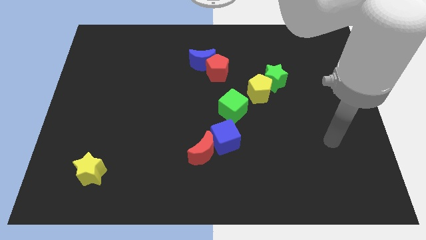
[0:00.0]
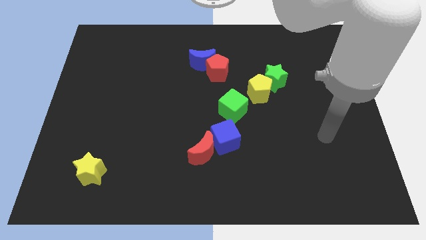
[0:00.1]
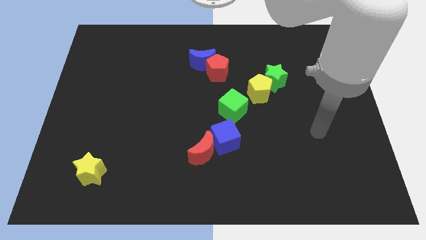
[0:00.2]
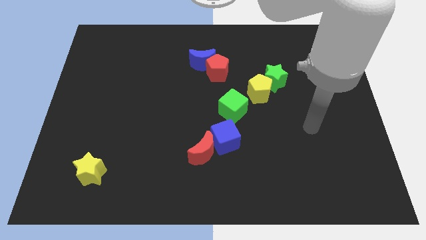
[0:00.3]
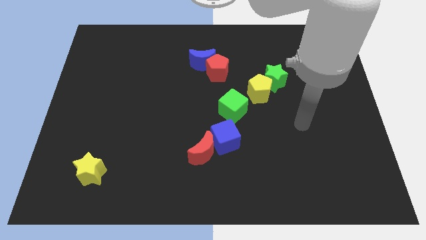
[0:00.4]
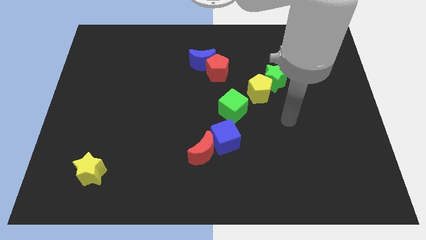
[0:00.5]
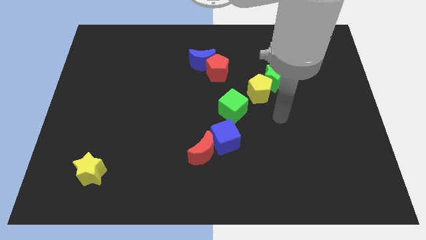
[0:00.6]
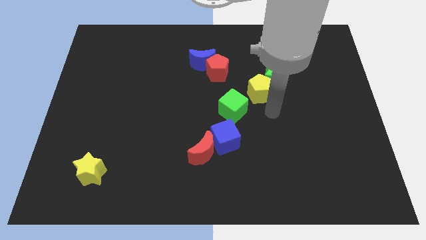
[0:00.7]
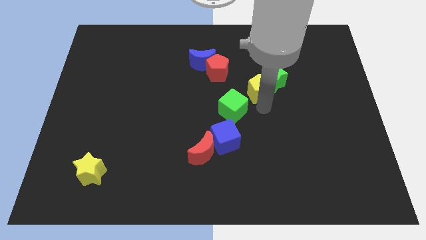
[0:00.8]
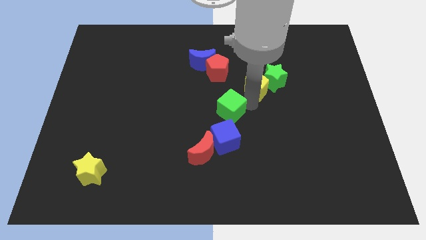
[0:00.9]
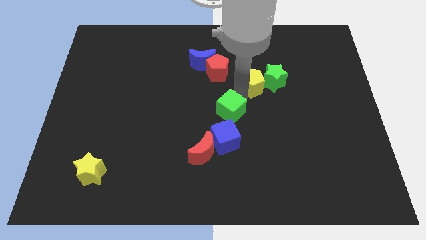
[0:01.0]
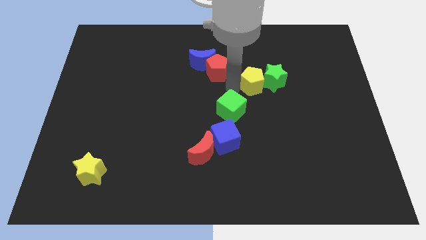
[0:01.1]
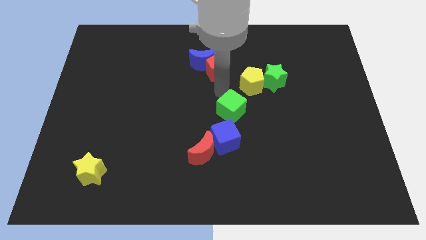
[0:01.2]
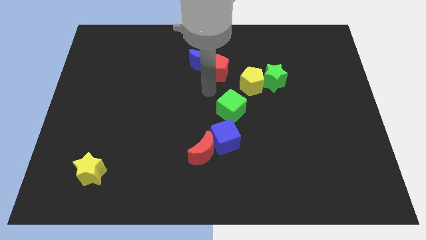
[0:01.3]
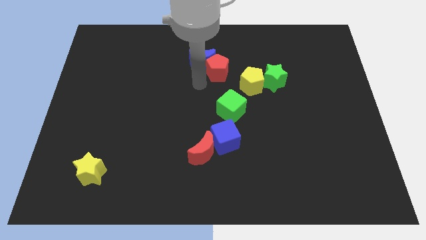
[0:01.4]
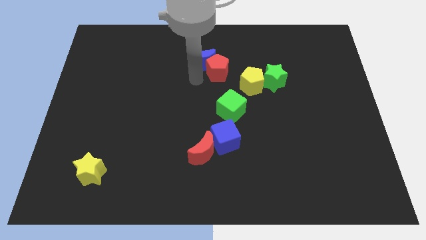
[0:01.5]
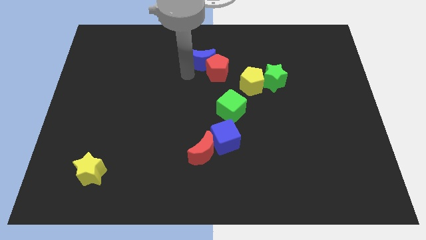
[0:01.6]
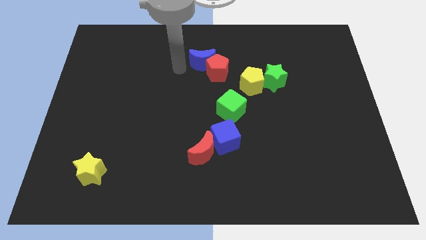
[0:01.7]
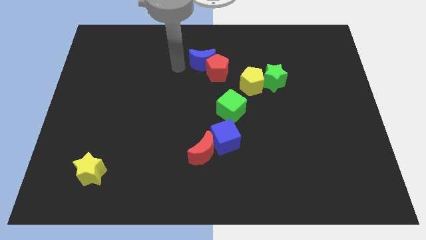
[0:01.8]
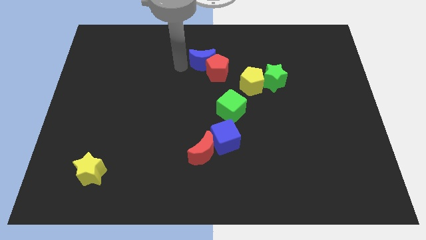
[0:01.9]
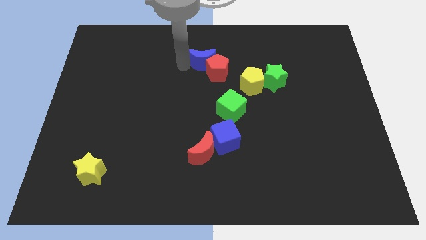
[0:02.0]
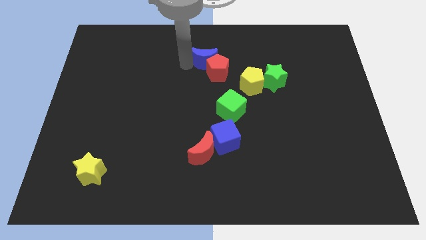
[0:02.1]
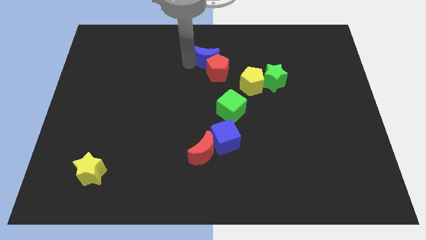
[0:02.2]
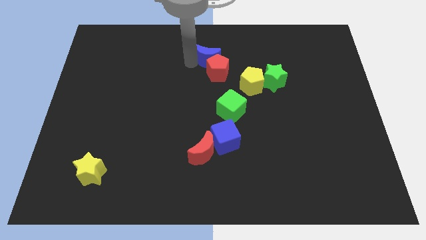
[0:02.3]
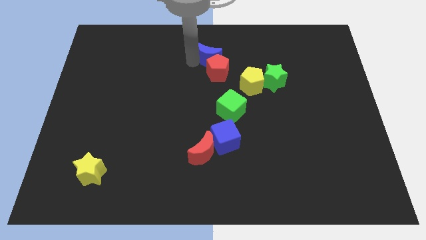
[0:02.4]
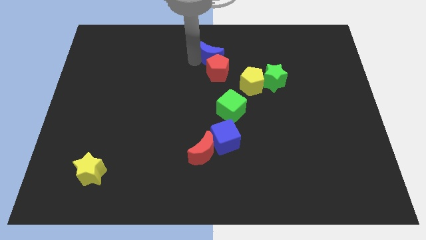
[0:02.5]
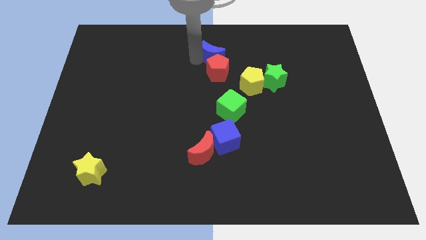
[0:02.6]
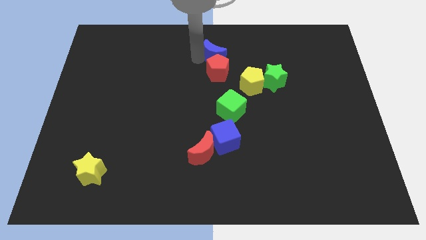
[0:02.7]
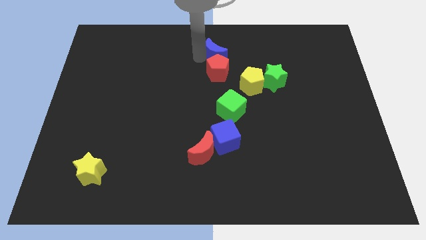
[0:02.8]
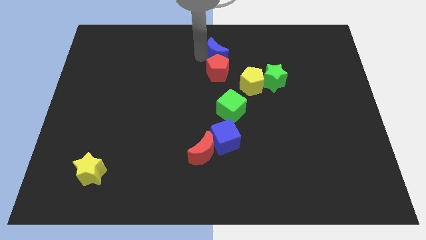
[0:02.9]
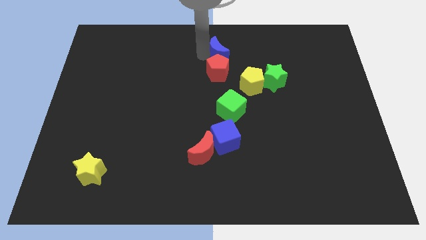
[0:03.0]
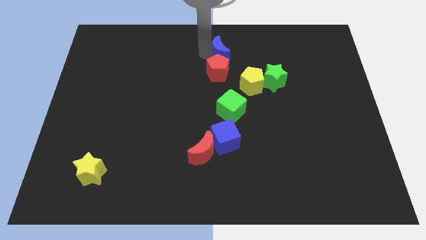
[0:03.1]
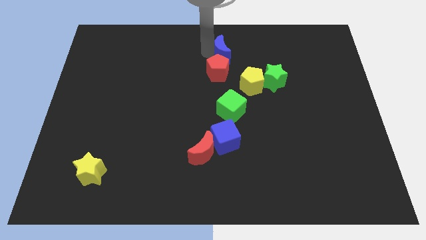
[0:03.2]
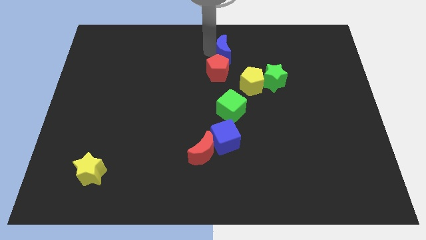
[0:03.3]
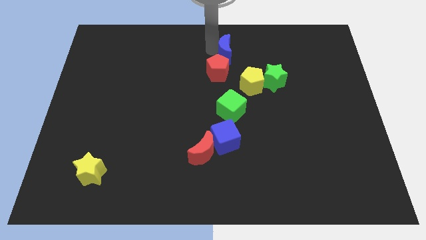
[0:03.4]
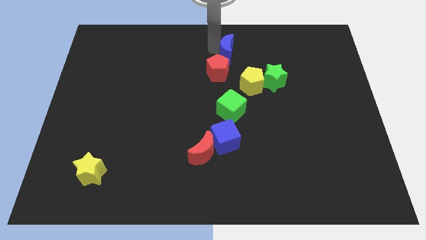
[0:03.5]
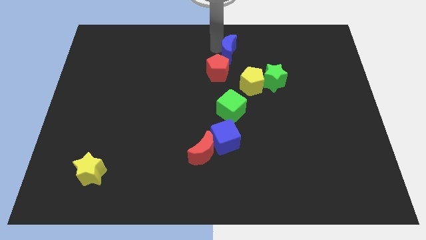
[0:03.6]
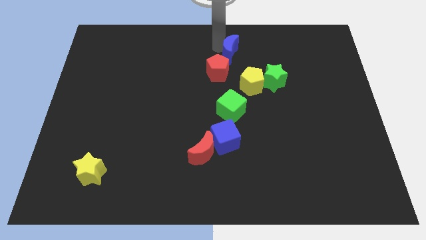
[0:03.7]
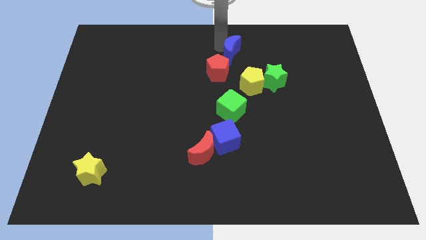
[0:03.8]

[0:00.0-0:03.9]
slightly slide the blue moon to the right

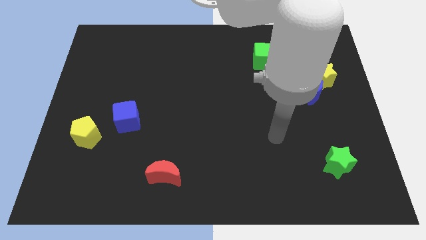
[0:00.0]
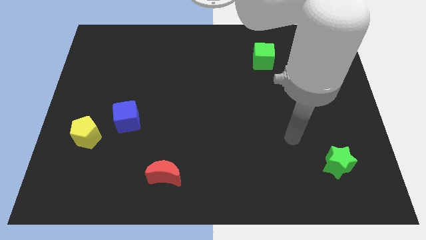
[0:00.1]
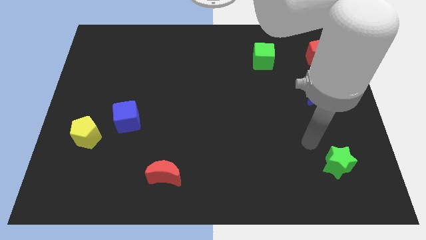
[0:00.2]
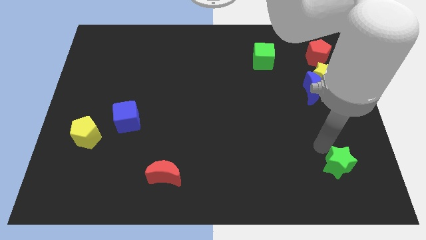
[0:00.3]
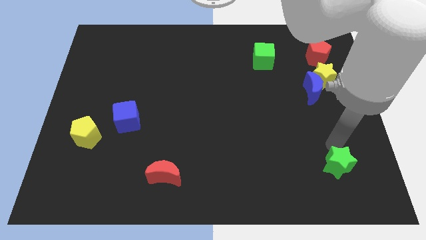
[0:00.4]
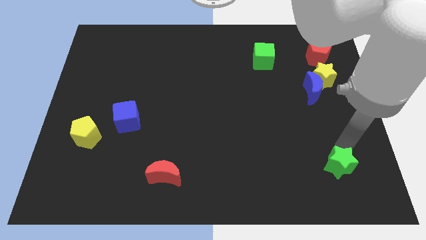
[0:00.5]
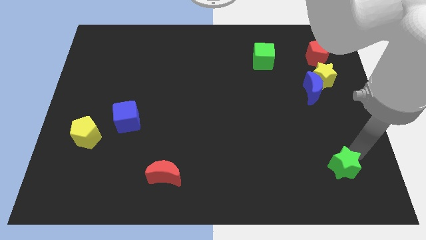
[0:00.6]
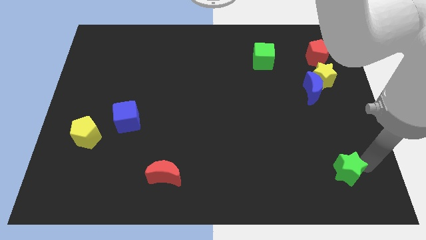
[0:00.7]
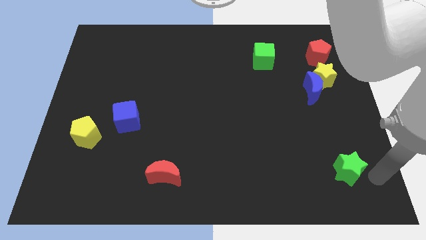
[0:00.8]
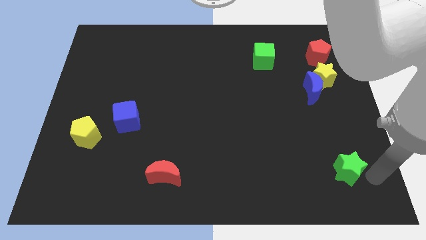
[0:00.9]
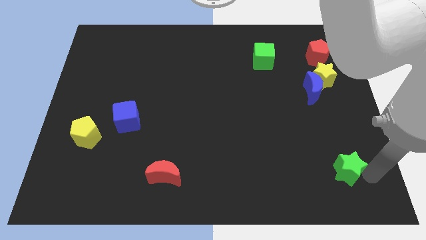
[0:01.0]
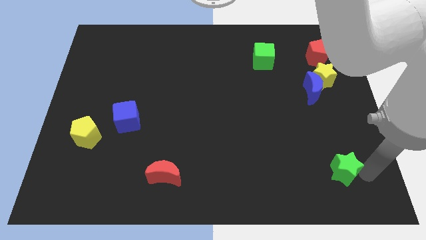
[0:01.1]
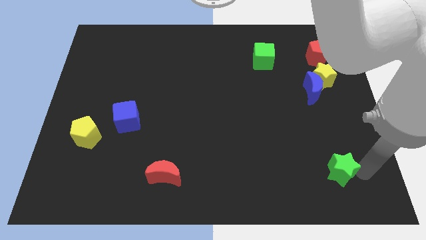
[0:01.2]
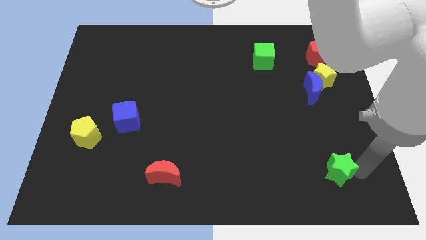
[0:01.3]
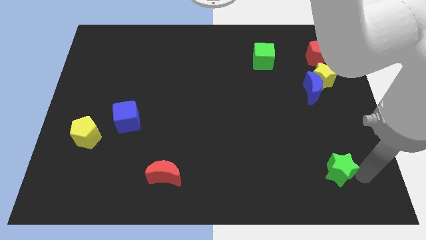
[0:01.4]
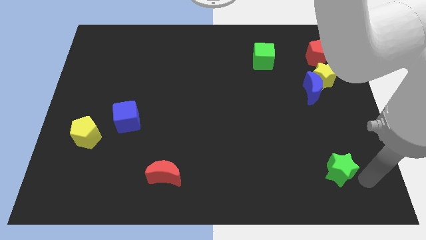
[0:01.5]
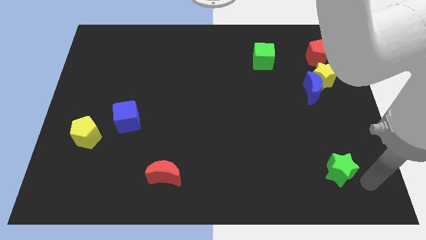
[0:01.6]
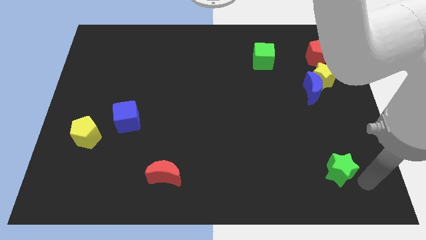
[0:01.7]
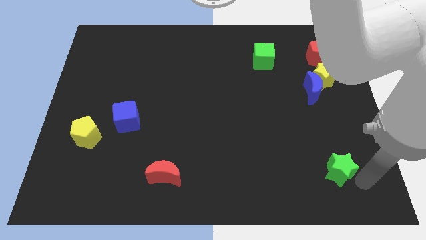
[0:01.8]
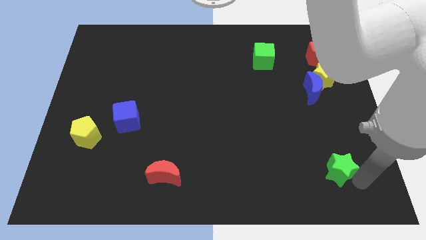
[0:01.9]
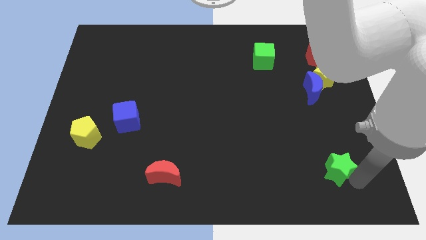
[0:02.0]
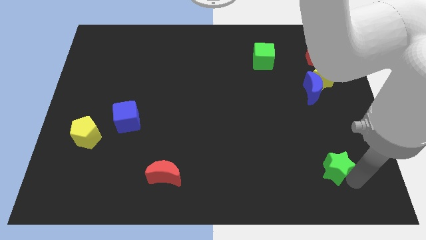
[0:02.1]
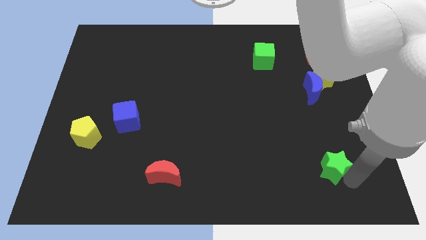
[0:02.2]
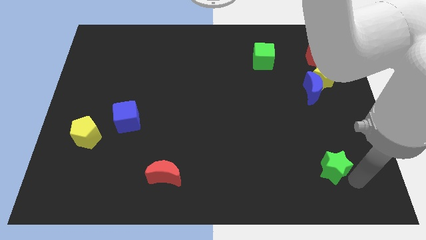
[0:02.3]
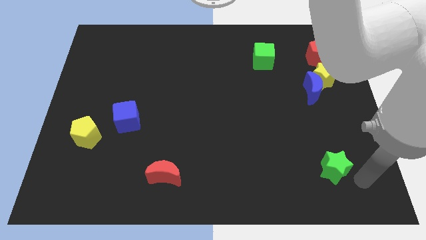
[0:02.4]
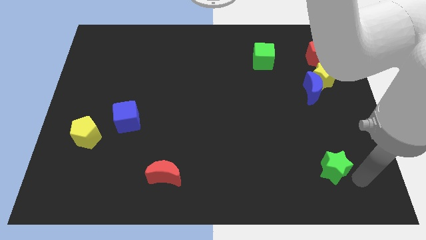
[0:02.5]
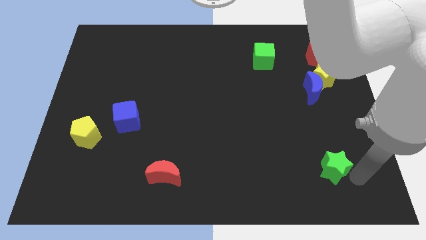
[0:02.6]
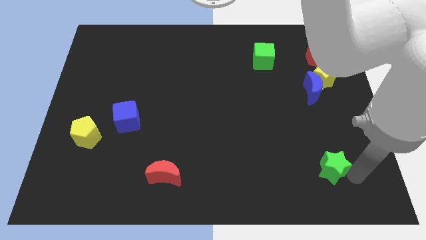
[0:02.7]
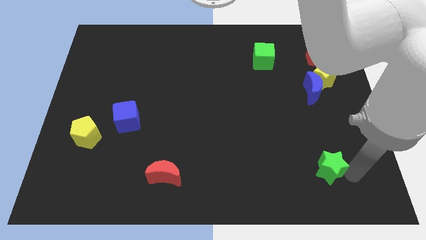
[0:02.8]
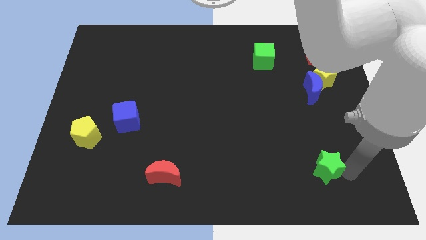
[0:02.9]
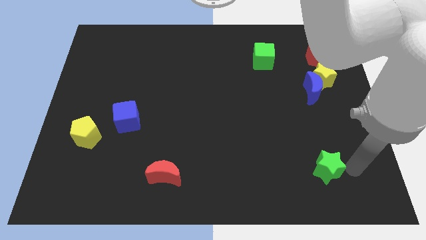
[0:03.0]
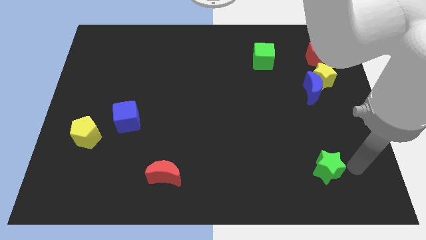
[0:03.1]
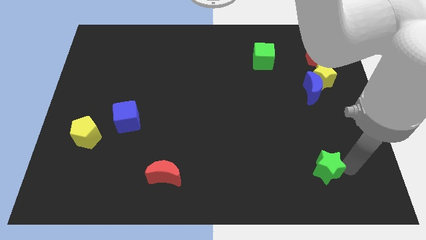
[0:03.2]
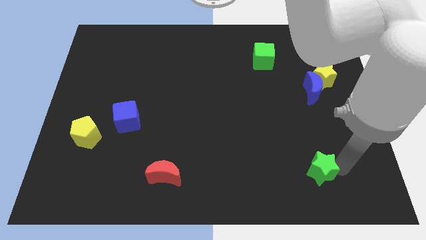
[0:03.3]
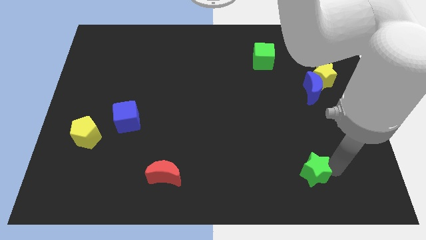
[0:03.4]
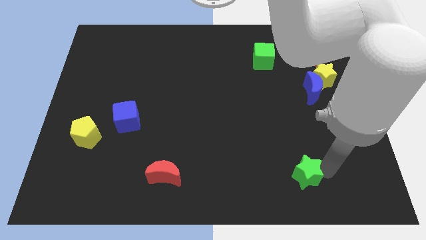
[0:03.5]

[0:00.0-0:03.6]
move the green star left a little bit

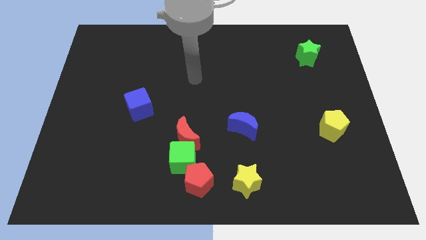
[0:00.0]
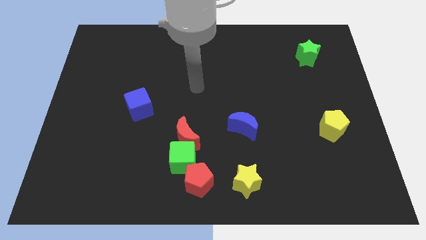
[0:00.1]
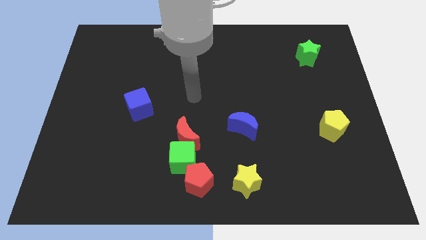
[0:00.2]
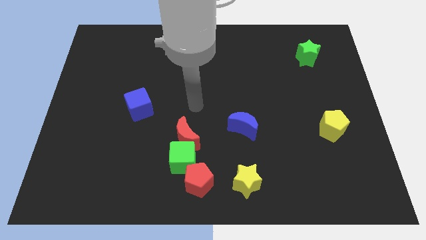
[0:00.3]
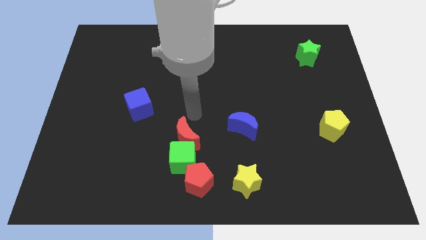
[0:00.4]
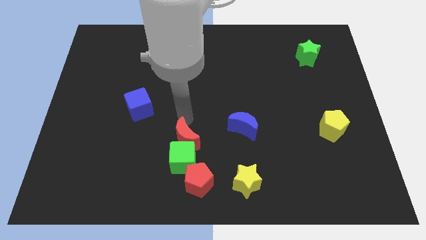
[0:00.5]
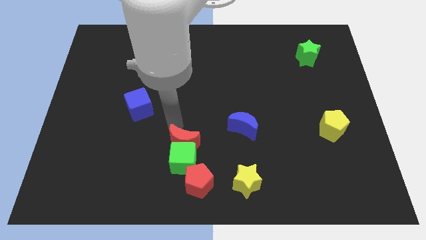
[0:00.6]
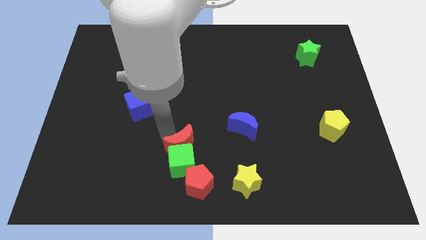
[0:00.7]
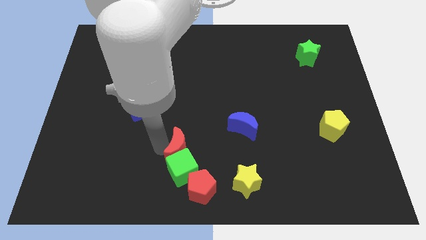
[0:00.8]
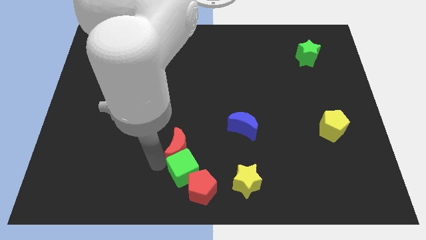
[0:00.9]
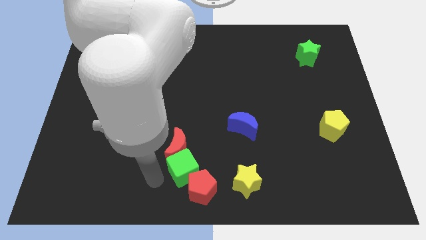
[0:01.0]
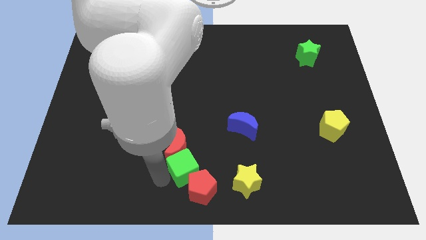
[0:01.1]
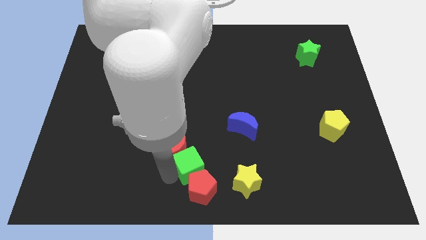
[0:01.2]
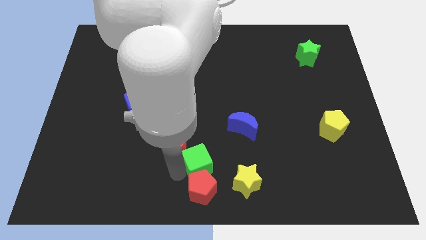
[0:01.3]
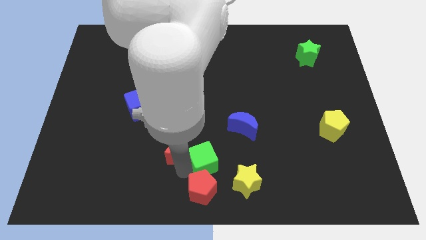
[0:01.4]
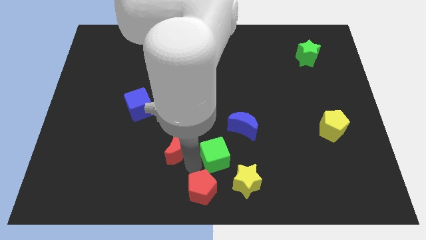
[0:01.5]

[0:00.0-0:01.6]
slightly move the green cube right
